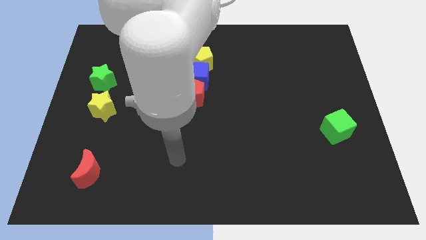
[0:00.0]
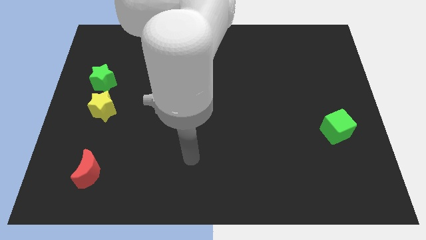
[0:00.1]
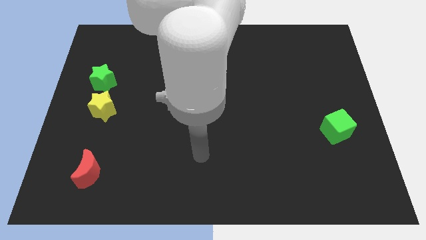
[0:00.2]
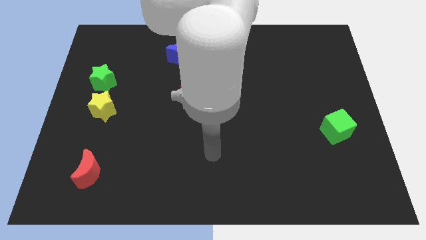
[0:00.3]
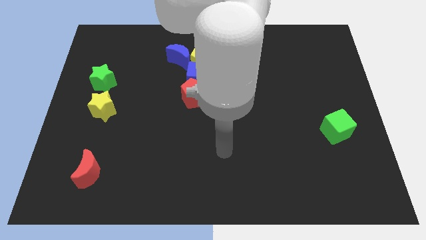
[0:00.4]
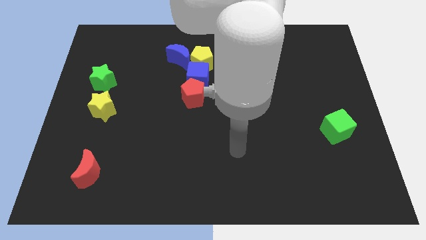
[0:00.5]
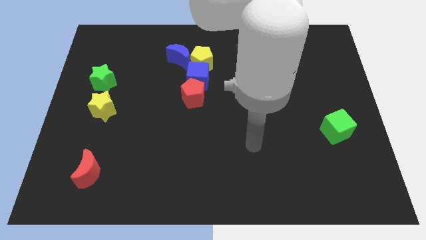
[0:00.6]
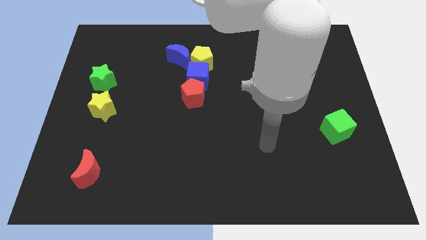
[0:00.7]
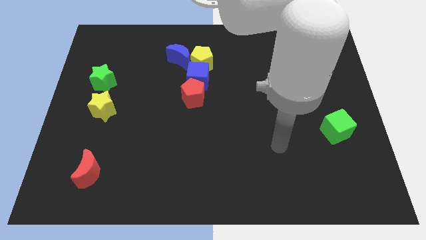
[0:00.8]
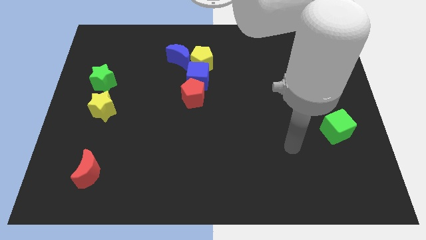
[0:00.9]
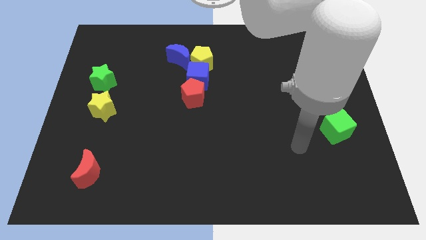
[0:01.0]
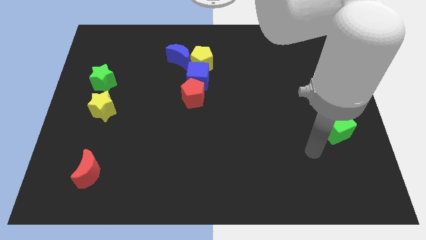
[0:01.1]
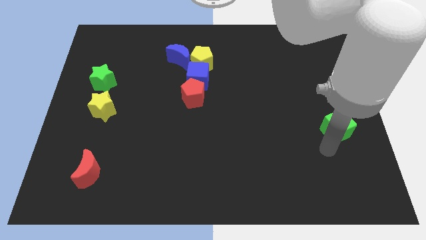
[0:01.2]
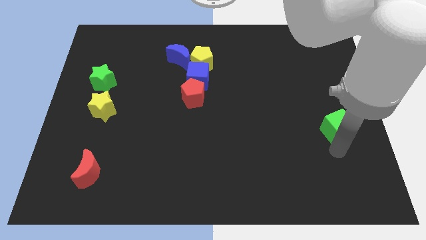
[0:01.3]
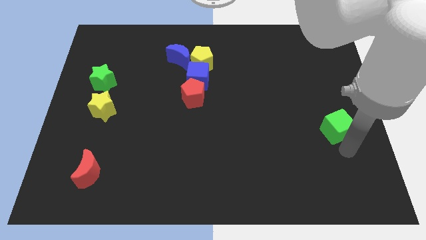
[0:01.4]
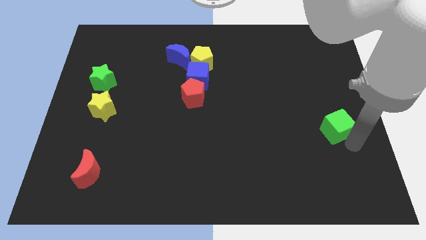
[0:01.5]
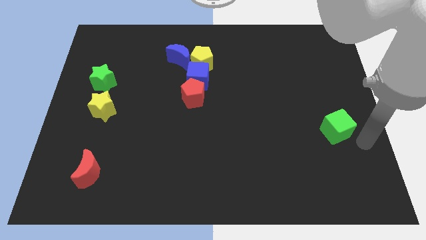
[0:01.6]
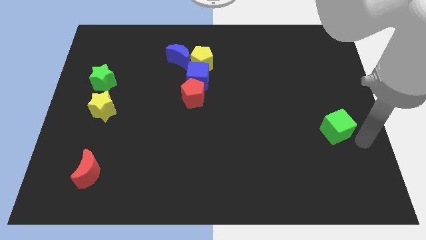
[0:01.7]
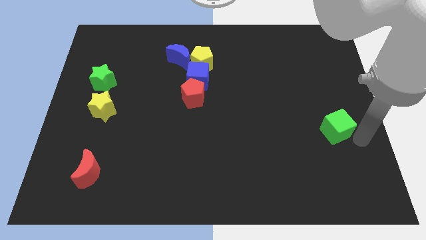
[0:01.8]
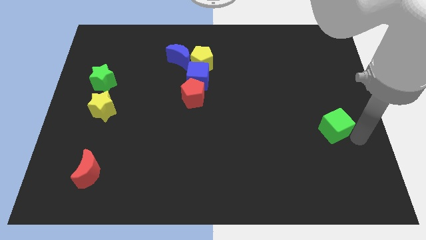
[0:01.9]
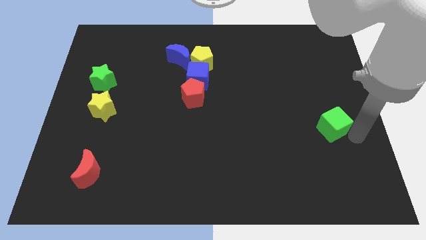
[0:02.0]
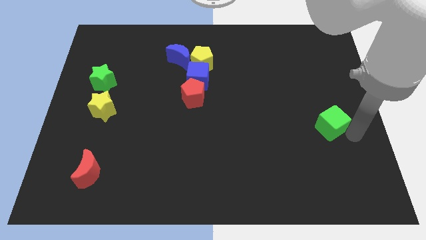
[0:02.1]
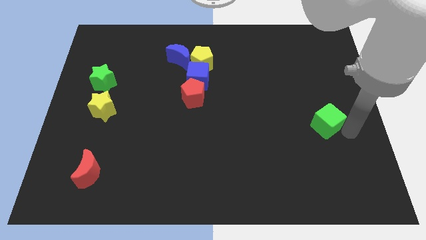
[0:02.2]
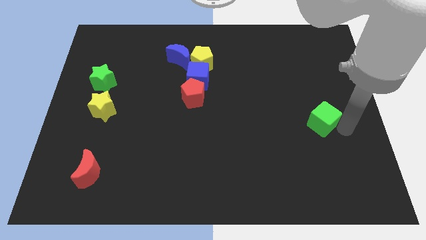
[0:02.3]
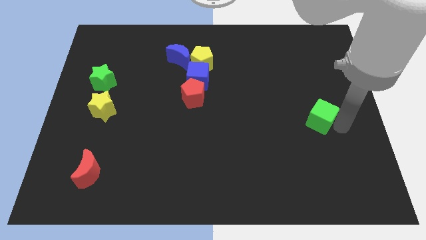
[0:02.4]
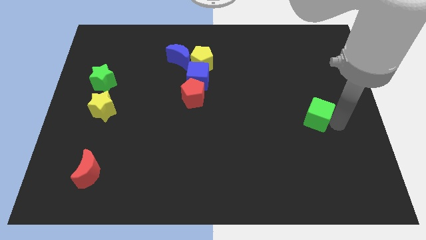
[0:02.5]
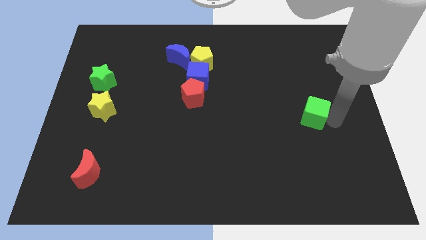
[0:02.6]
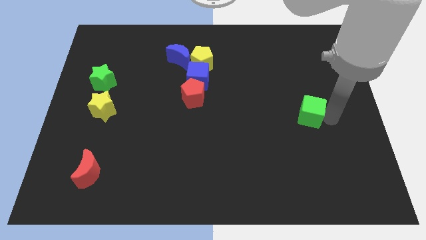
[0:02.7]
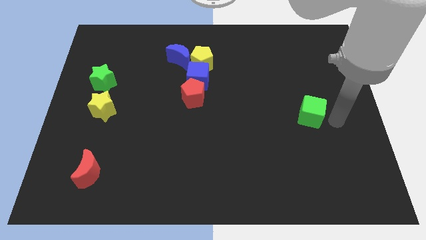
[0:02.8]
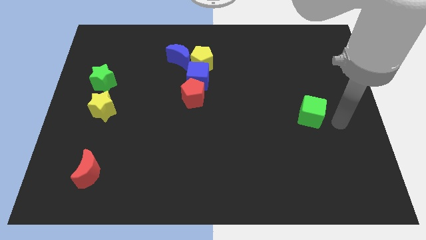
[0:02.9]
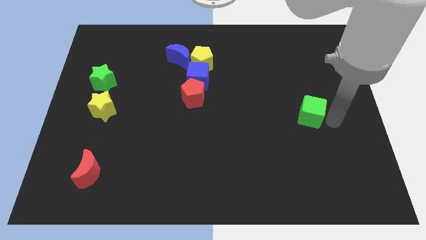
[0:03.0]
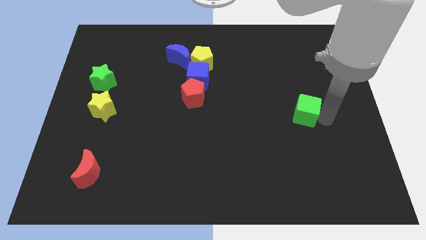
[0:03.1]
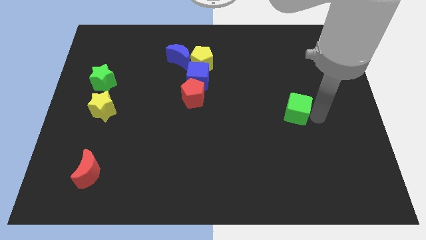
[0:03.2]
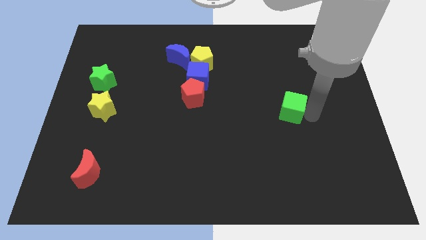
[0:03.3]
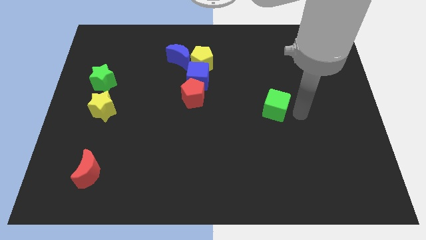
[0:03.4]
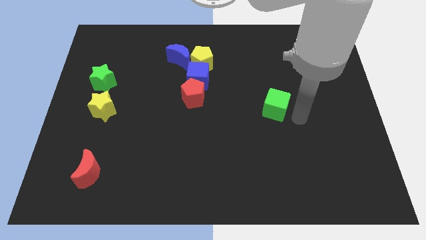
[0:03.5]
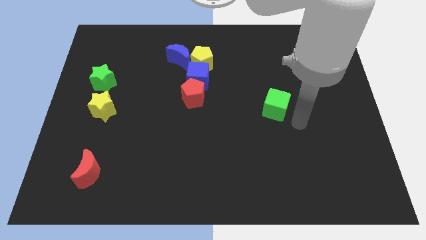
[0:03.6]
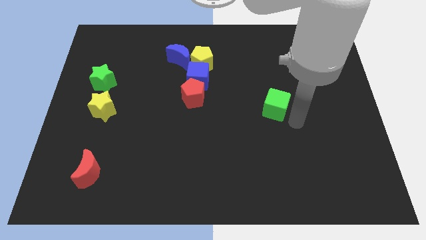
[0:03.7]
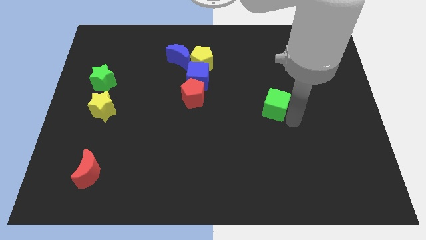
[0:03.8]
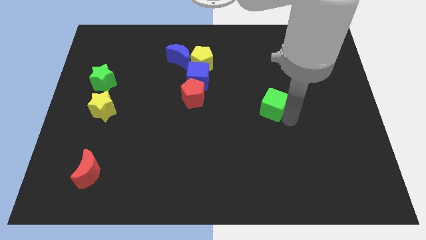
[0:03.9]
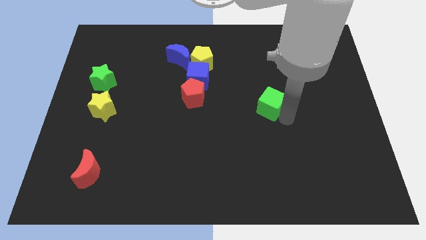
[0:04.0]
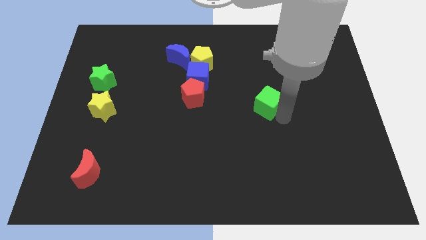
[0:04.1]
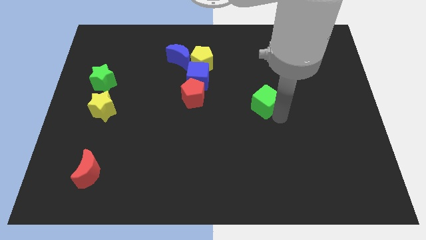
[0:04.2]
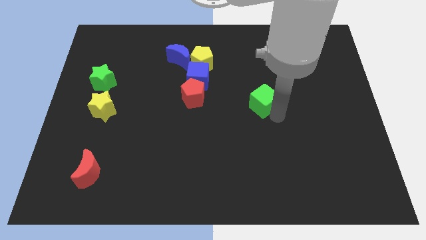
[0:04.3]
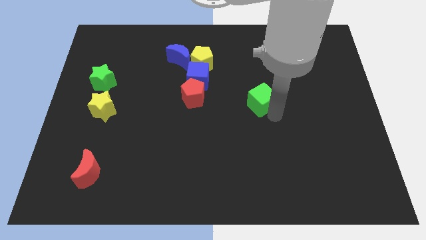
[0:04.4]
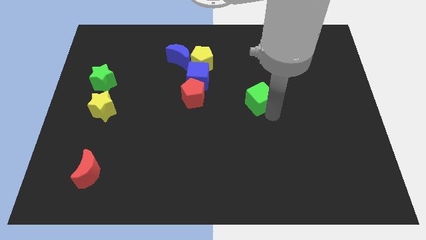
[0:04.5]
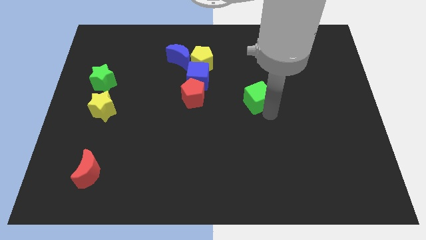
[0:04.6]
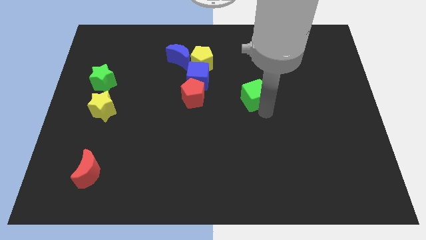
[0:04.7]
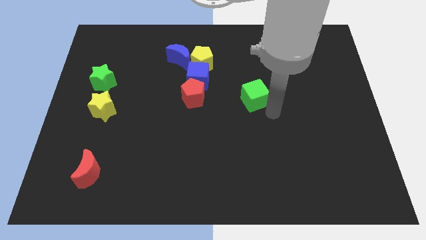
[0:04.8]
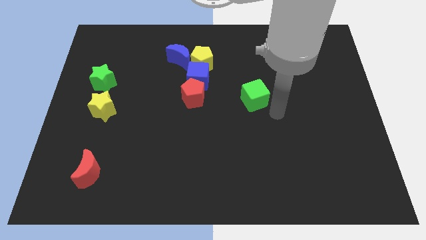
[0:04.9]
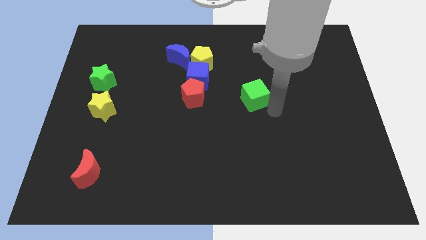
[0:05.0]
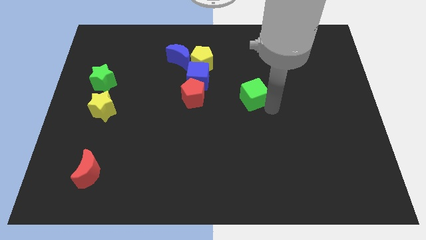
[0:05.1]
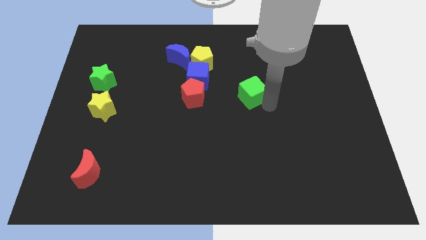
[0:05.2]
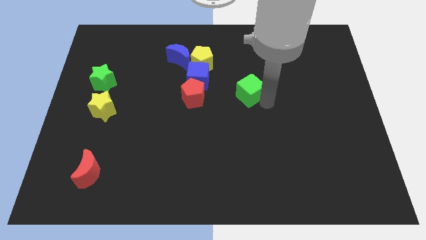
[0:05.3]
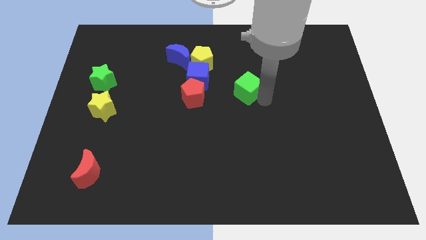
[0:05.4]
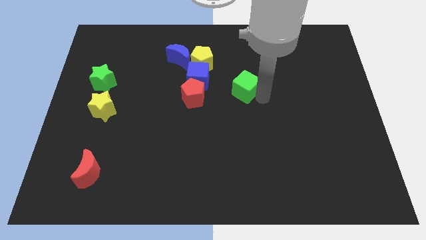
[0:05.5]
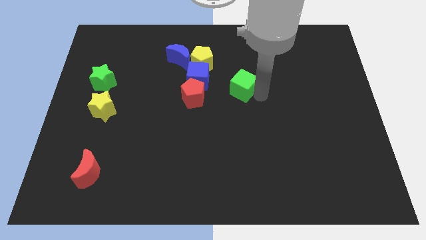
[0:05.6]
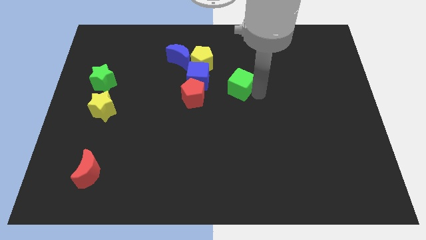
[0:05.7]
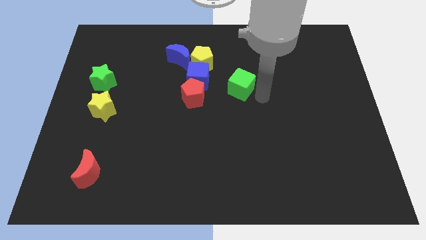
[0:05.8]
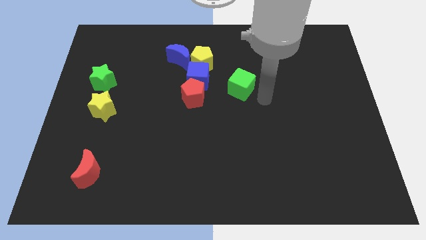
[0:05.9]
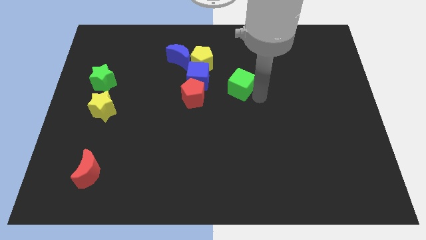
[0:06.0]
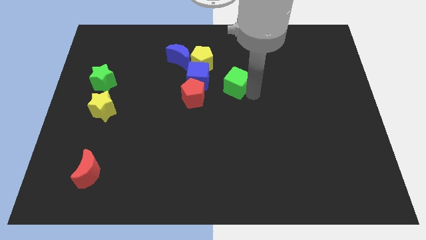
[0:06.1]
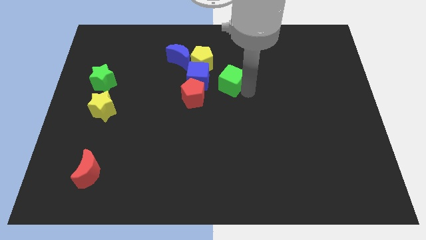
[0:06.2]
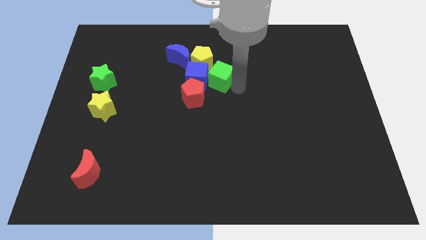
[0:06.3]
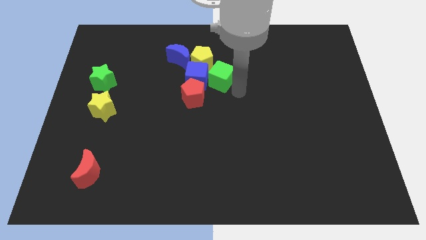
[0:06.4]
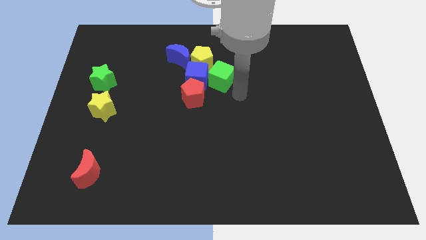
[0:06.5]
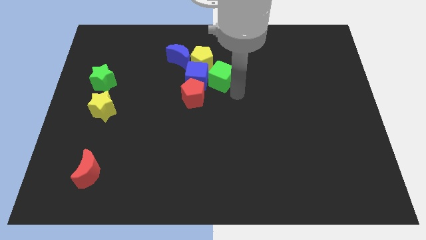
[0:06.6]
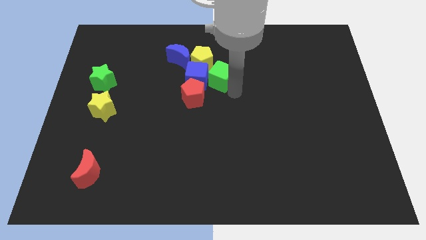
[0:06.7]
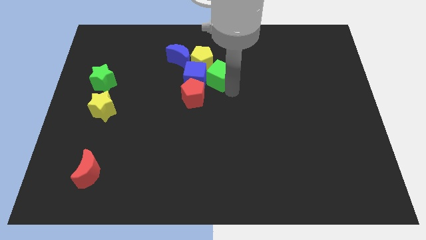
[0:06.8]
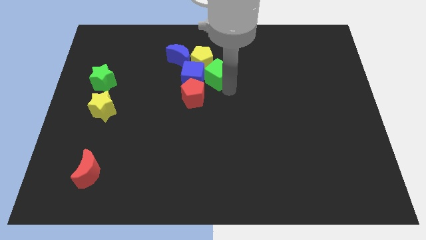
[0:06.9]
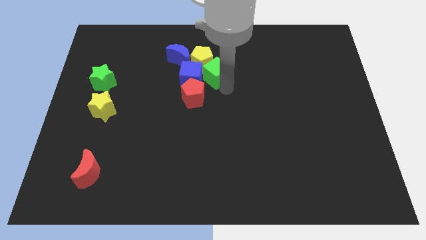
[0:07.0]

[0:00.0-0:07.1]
put the green cube towards the yellow pentagon

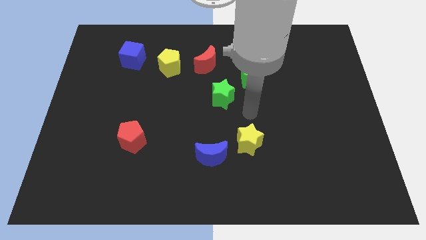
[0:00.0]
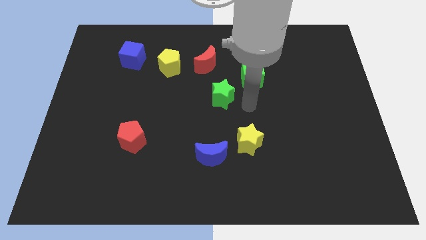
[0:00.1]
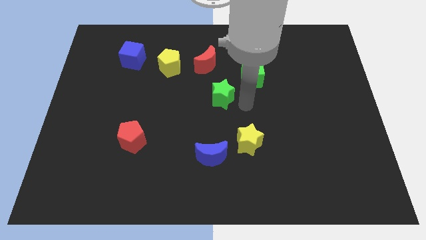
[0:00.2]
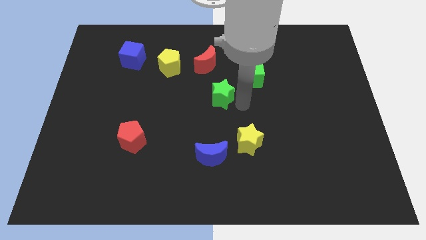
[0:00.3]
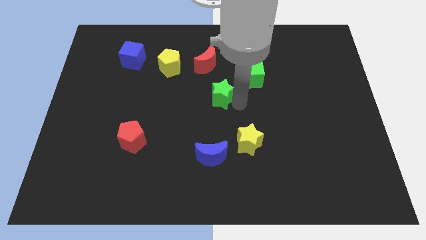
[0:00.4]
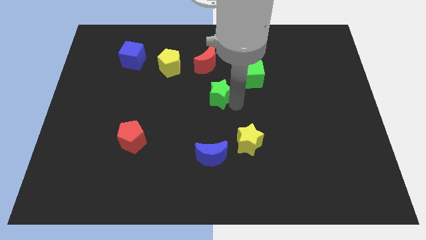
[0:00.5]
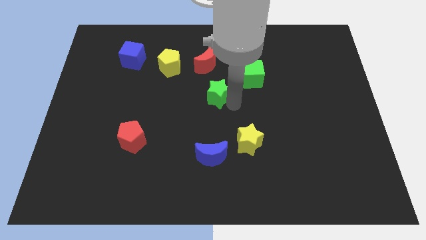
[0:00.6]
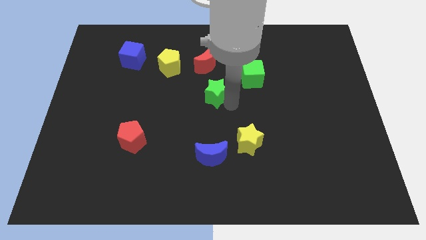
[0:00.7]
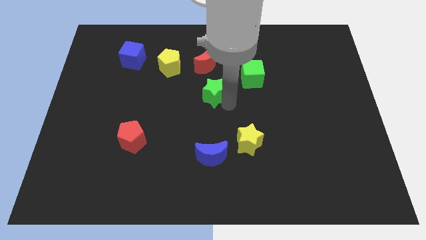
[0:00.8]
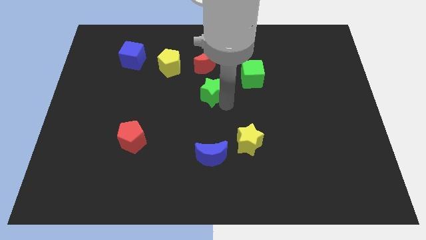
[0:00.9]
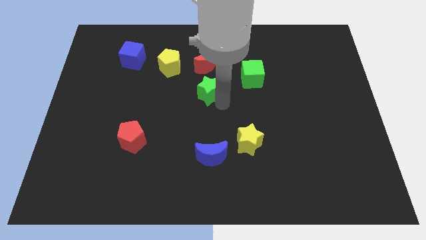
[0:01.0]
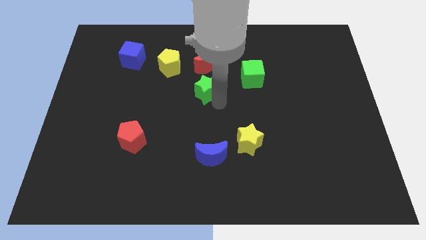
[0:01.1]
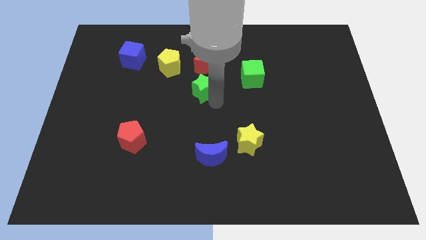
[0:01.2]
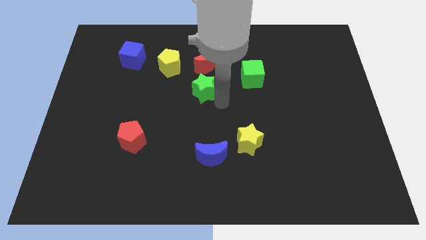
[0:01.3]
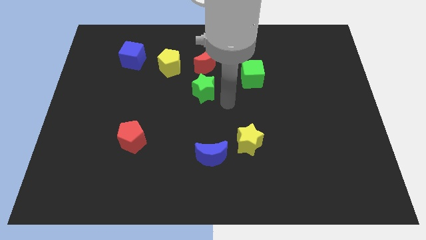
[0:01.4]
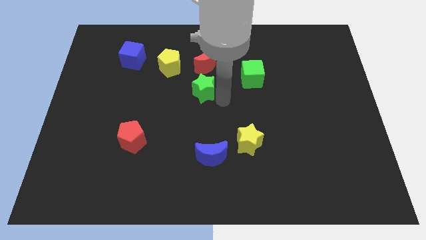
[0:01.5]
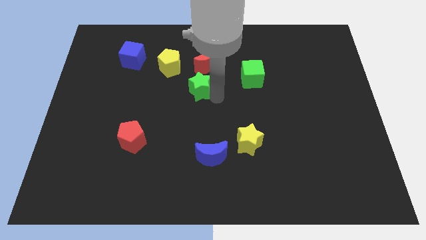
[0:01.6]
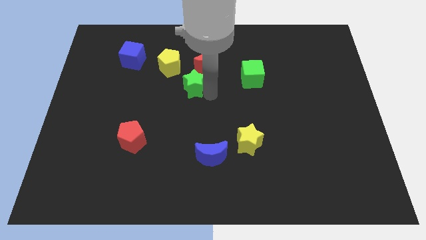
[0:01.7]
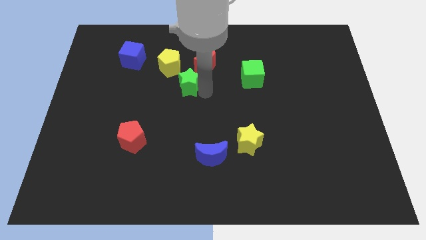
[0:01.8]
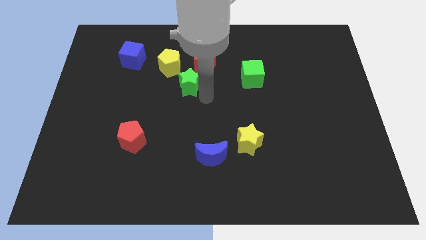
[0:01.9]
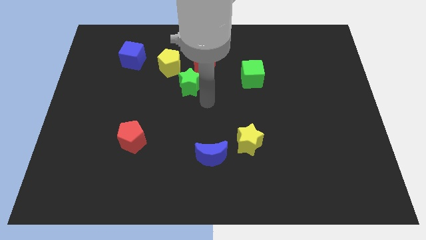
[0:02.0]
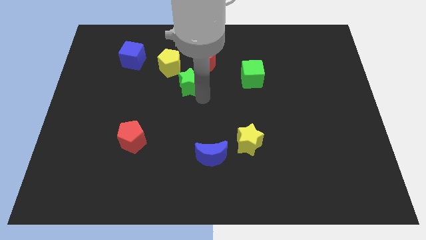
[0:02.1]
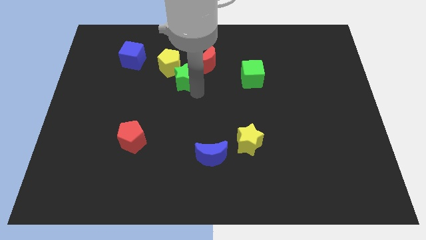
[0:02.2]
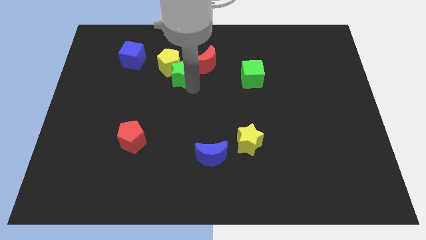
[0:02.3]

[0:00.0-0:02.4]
move the green star next to the yellow pentagon
